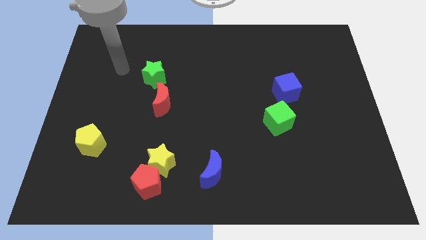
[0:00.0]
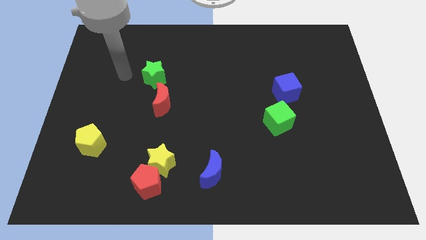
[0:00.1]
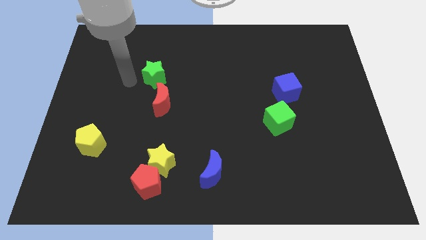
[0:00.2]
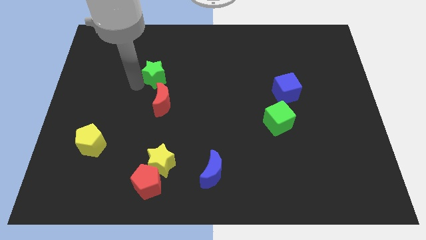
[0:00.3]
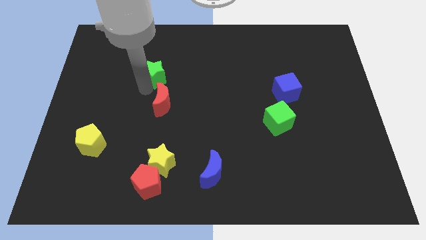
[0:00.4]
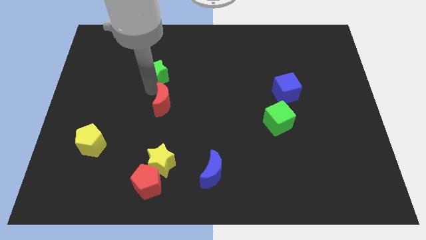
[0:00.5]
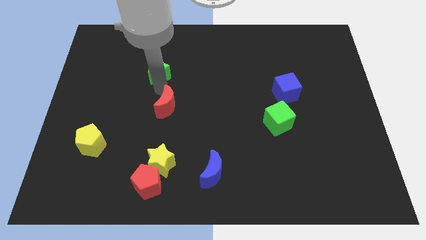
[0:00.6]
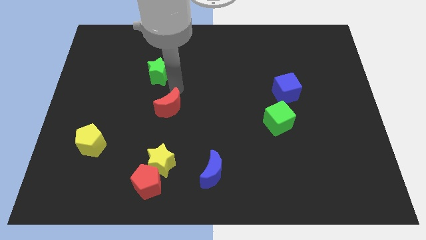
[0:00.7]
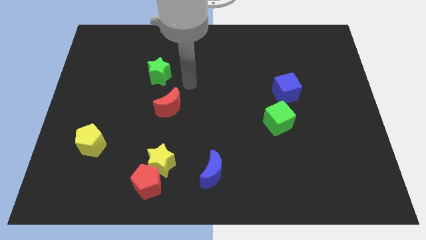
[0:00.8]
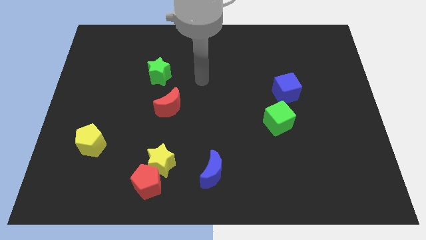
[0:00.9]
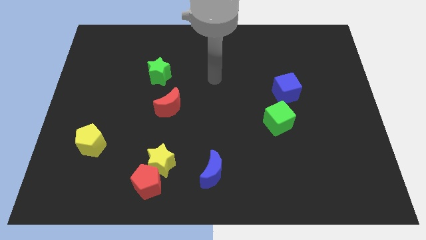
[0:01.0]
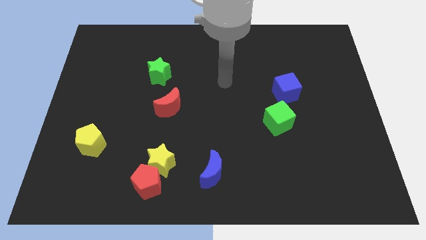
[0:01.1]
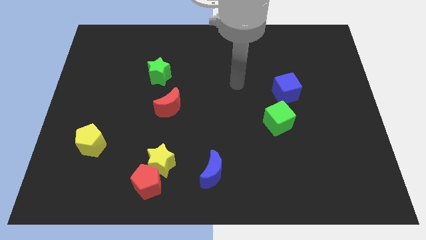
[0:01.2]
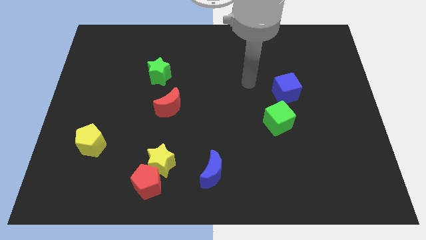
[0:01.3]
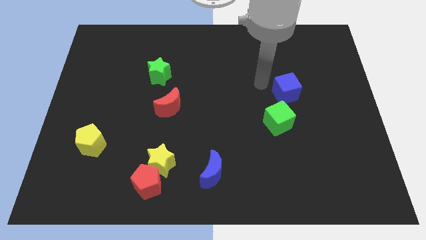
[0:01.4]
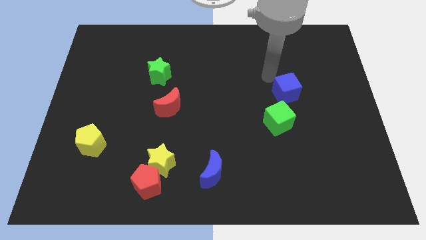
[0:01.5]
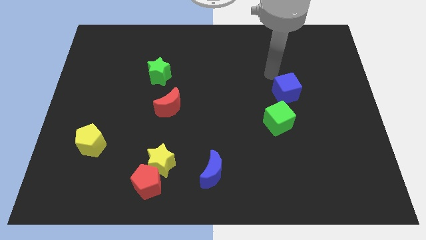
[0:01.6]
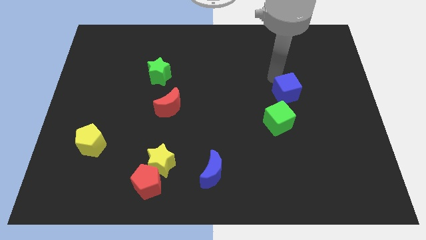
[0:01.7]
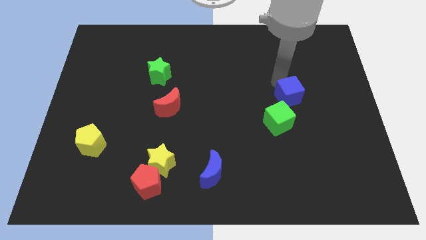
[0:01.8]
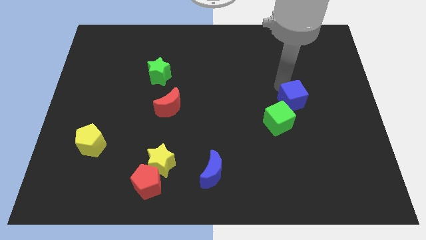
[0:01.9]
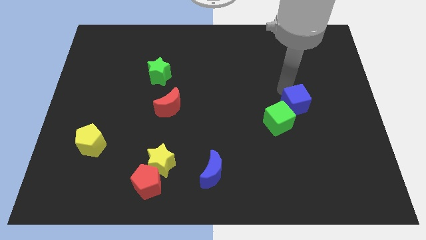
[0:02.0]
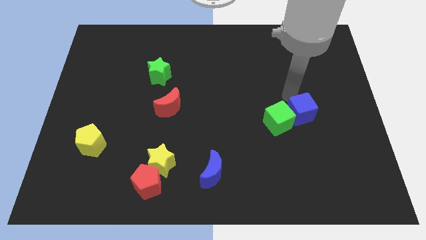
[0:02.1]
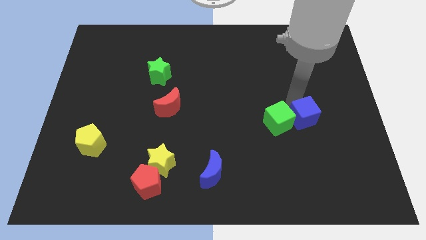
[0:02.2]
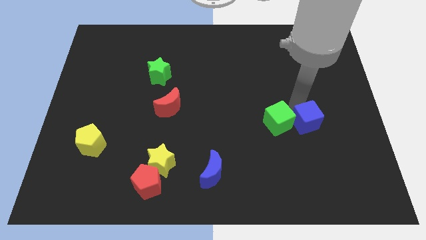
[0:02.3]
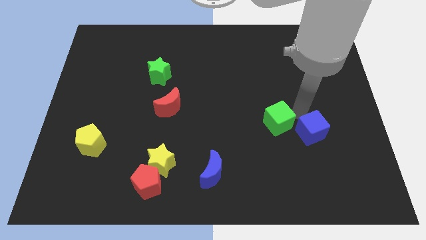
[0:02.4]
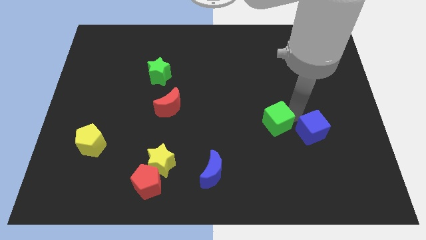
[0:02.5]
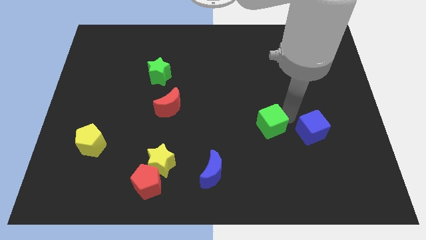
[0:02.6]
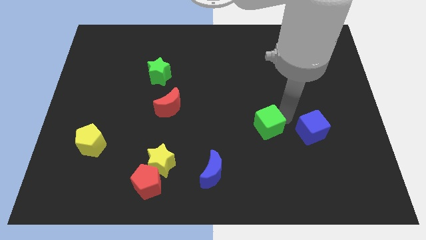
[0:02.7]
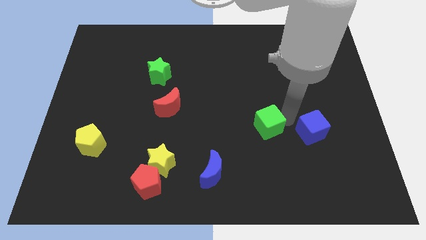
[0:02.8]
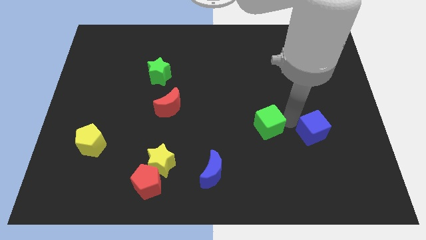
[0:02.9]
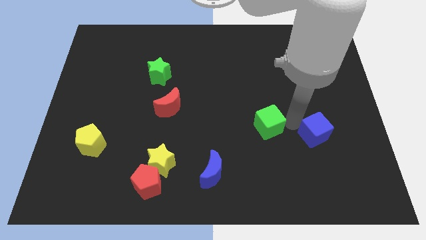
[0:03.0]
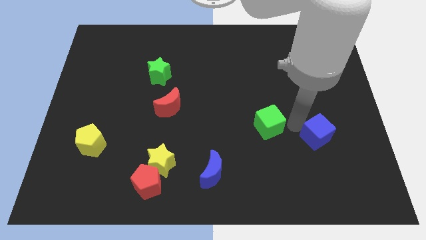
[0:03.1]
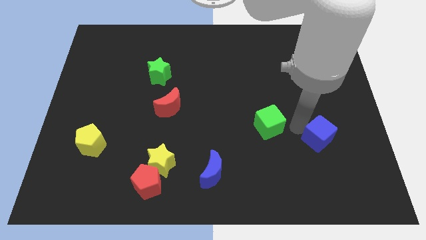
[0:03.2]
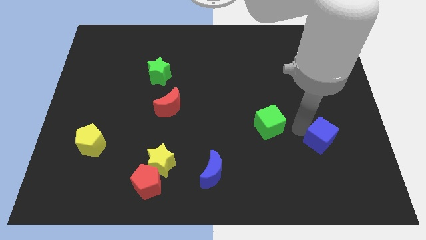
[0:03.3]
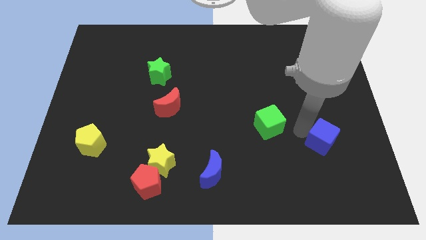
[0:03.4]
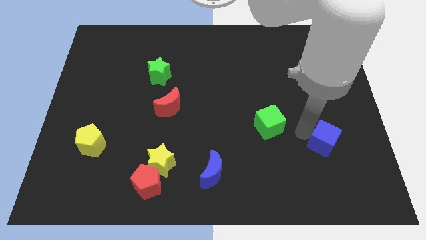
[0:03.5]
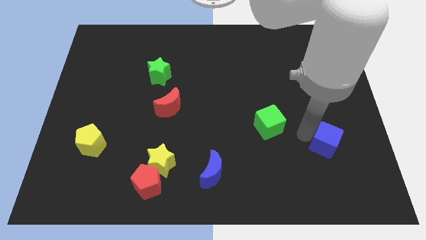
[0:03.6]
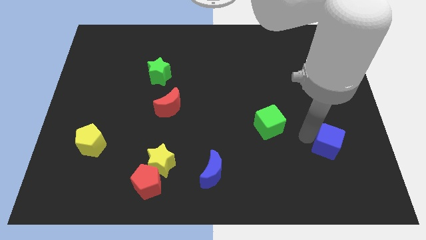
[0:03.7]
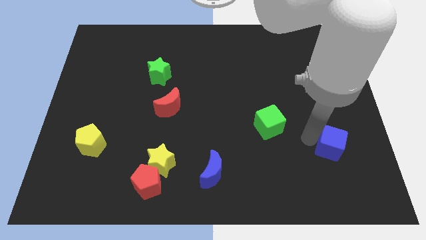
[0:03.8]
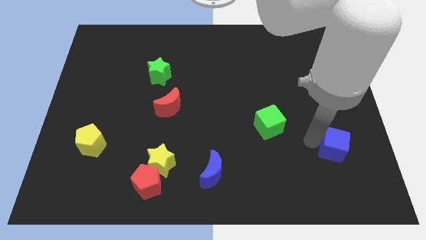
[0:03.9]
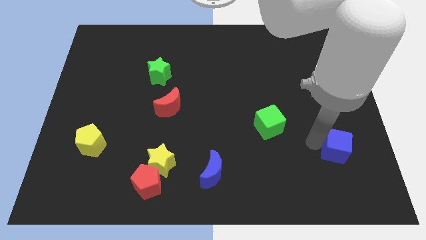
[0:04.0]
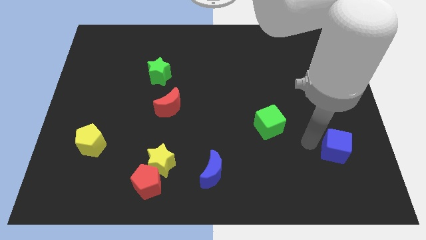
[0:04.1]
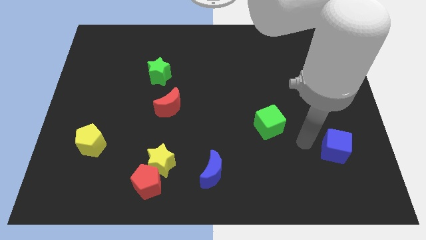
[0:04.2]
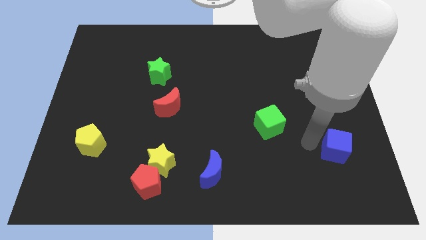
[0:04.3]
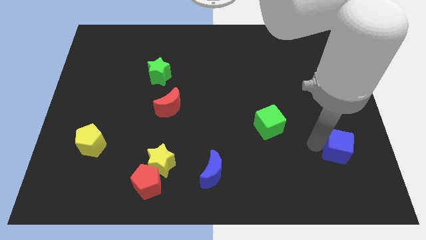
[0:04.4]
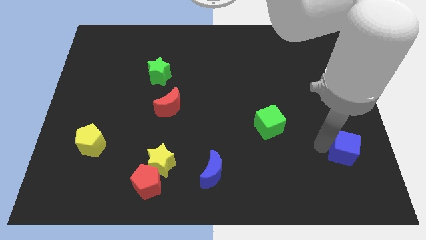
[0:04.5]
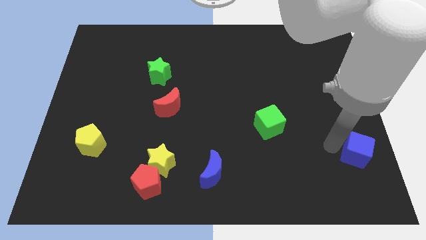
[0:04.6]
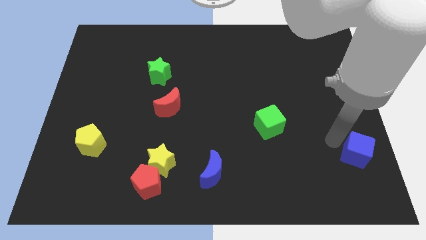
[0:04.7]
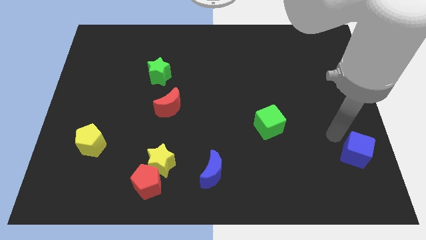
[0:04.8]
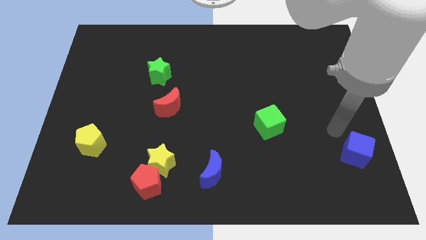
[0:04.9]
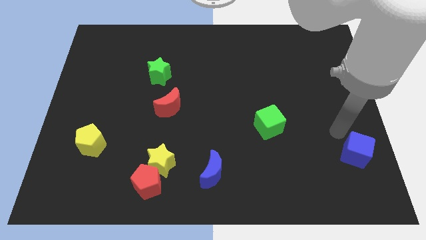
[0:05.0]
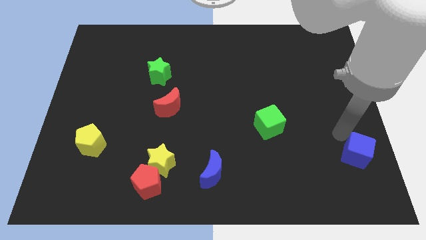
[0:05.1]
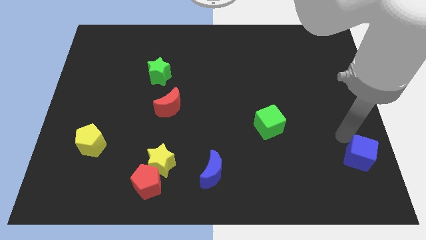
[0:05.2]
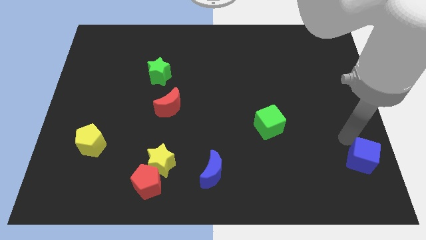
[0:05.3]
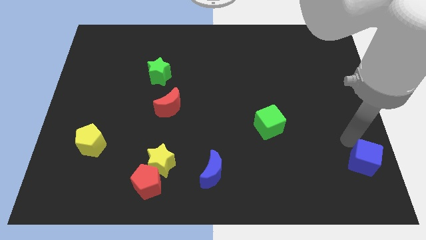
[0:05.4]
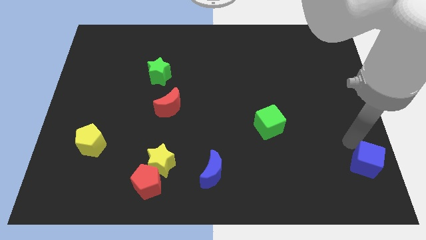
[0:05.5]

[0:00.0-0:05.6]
put the blue cube to the bottom right

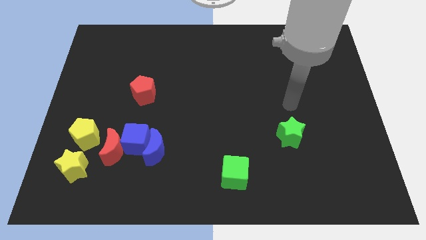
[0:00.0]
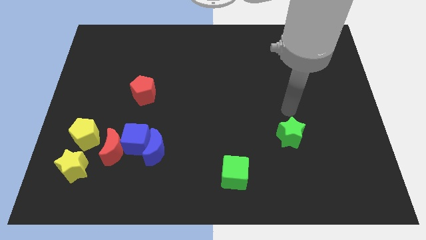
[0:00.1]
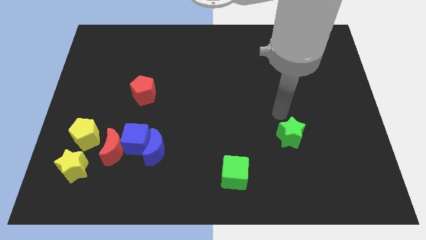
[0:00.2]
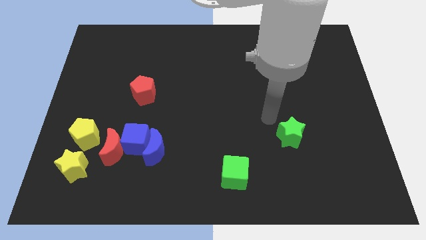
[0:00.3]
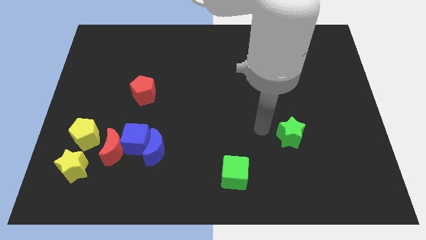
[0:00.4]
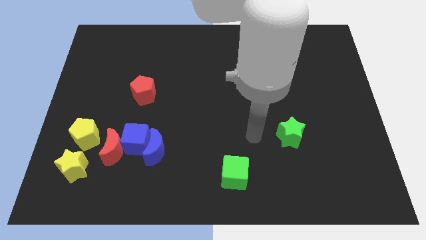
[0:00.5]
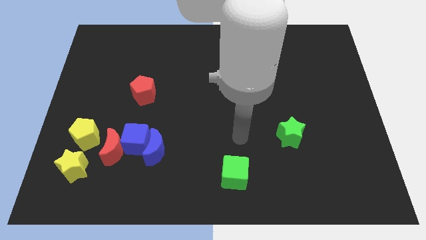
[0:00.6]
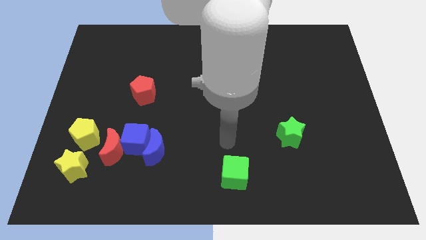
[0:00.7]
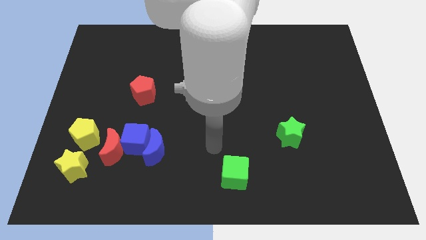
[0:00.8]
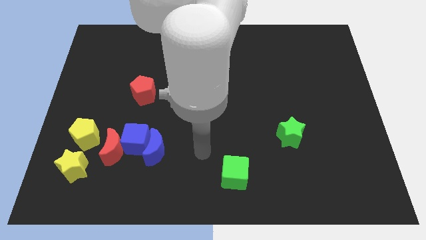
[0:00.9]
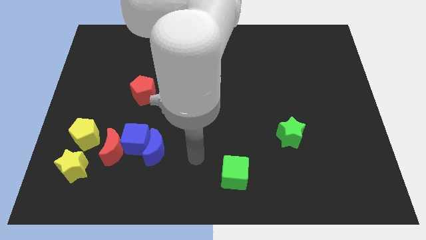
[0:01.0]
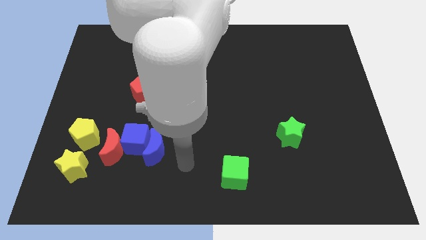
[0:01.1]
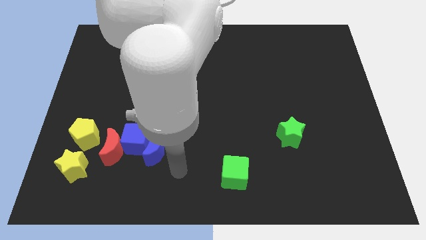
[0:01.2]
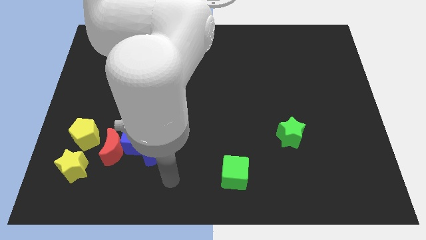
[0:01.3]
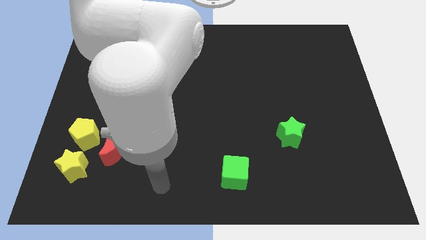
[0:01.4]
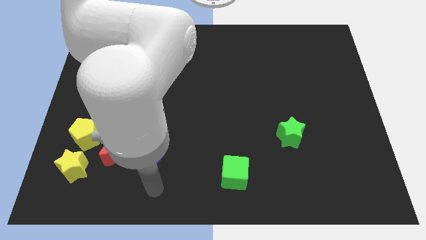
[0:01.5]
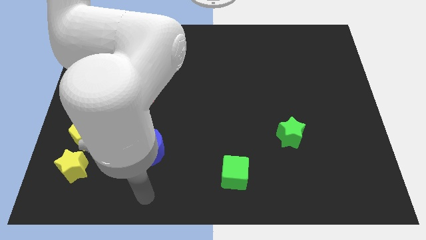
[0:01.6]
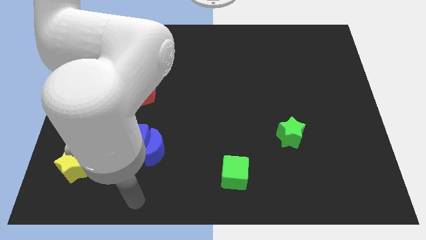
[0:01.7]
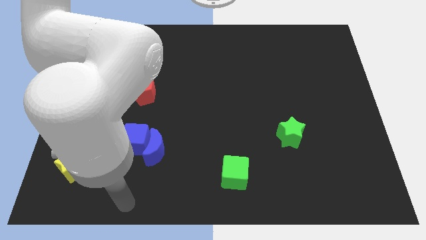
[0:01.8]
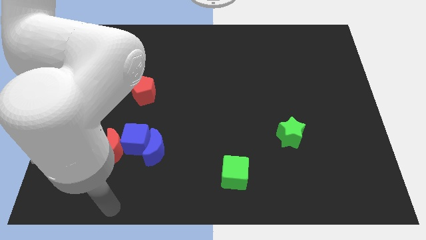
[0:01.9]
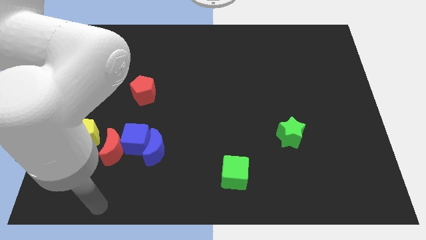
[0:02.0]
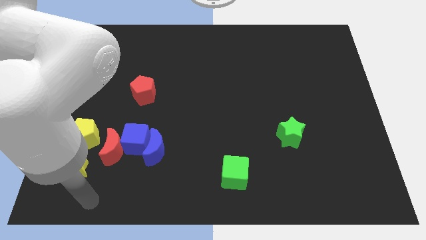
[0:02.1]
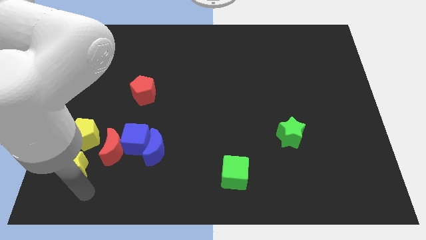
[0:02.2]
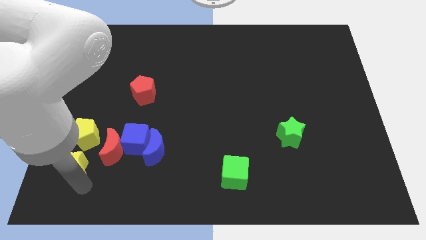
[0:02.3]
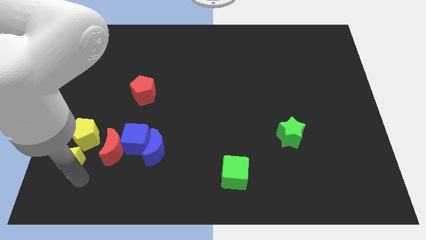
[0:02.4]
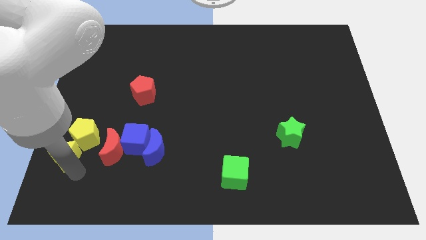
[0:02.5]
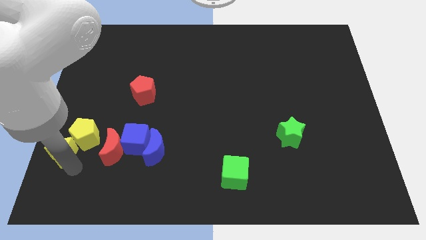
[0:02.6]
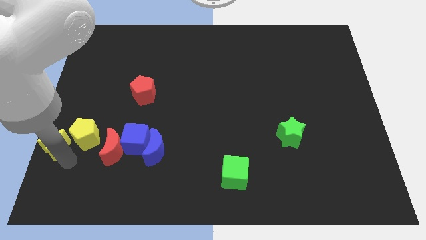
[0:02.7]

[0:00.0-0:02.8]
put the yellow star to the left side of the board
